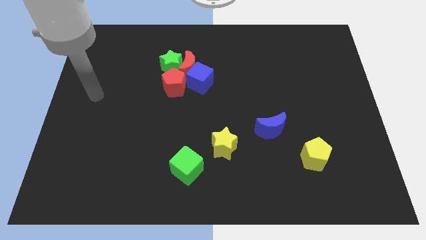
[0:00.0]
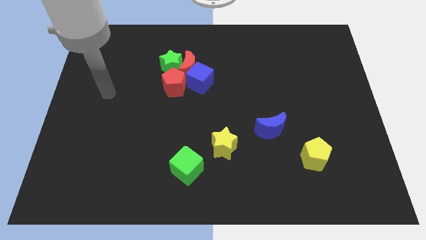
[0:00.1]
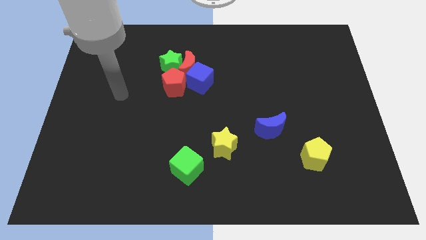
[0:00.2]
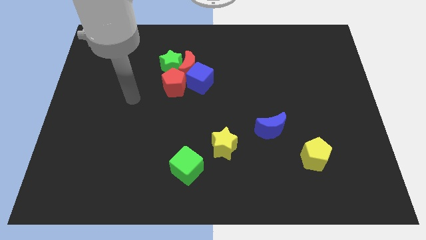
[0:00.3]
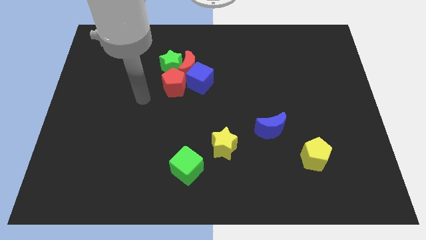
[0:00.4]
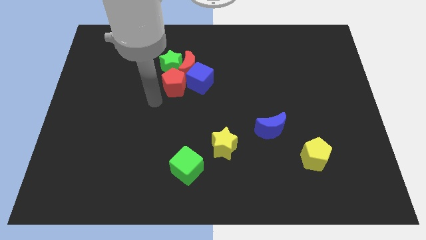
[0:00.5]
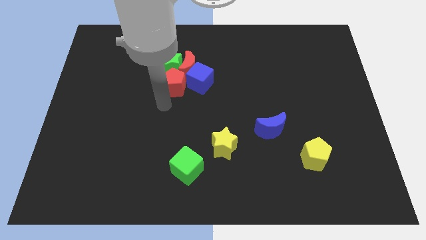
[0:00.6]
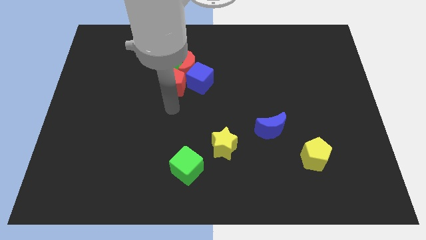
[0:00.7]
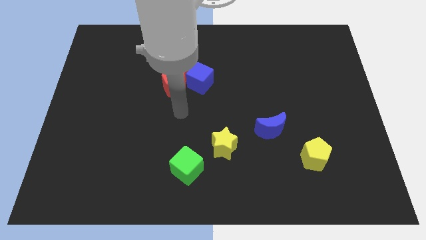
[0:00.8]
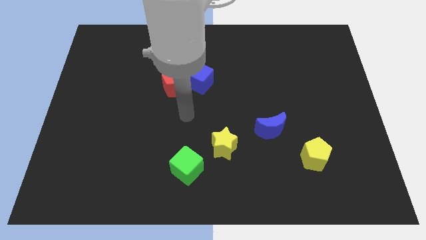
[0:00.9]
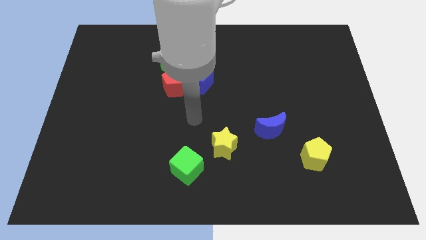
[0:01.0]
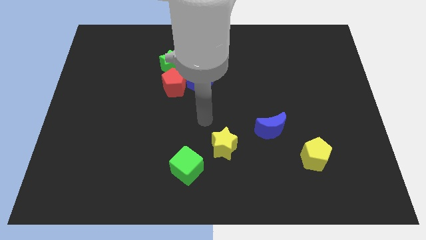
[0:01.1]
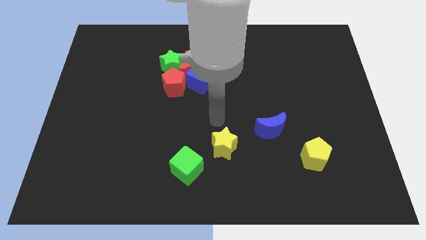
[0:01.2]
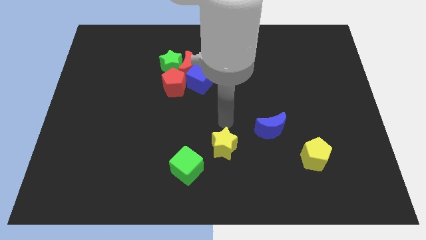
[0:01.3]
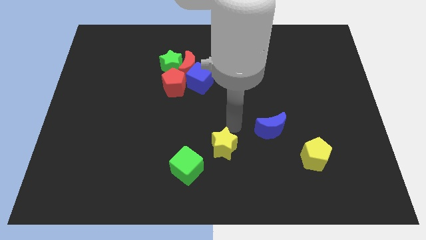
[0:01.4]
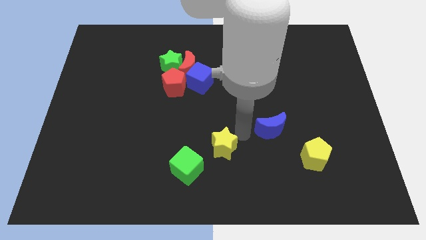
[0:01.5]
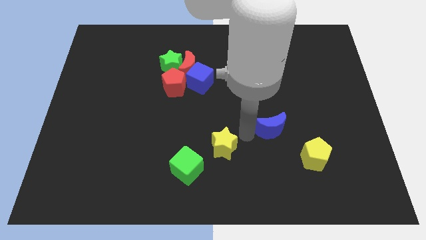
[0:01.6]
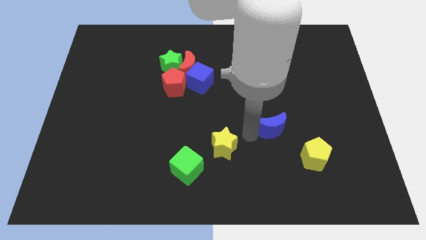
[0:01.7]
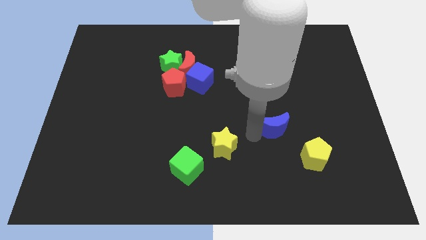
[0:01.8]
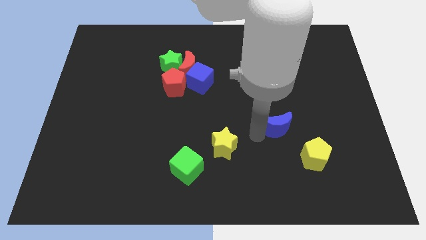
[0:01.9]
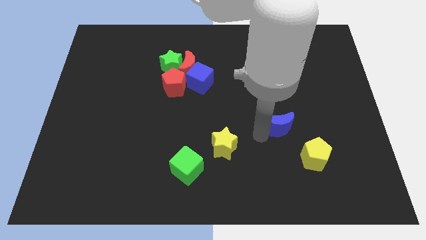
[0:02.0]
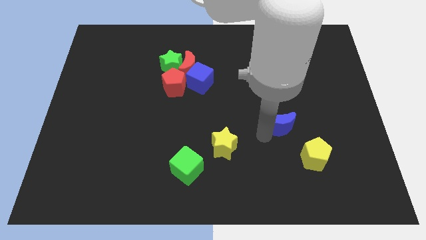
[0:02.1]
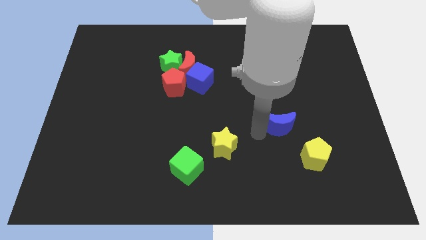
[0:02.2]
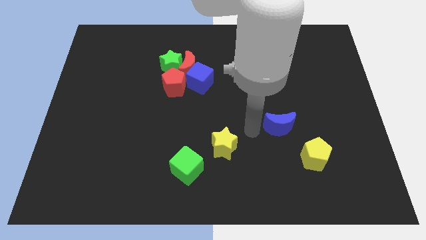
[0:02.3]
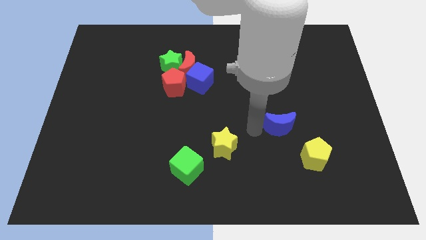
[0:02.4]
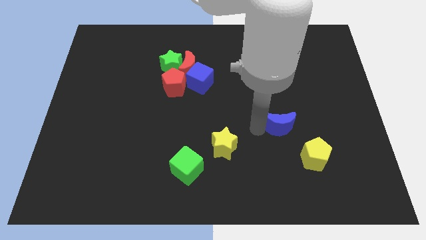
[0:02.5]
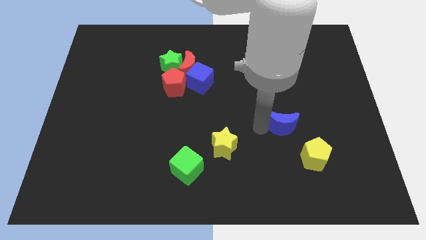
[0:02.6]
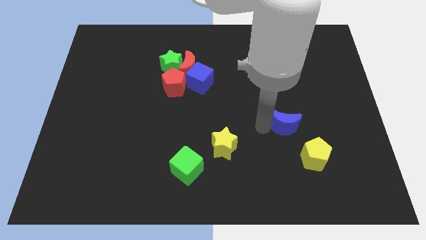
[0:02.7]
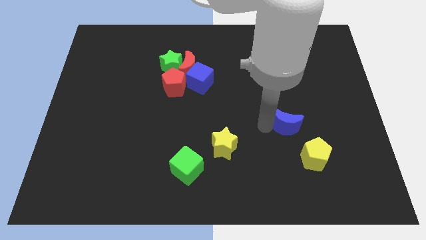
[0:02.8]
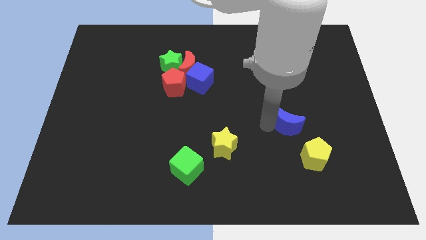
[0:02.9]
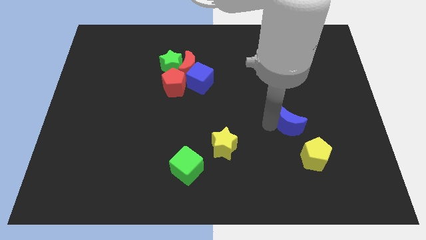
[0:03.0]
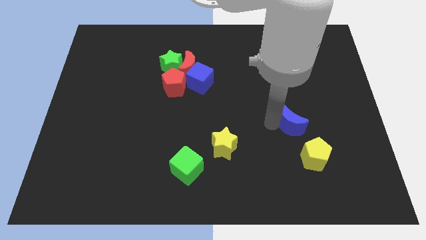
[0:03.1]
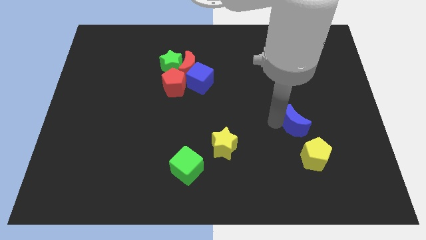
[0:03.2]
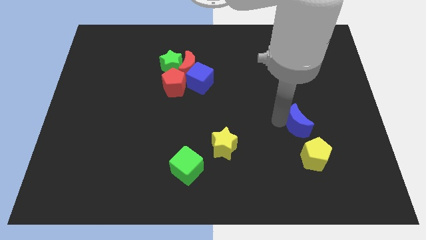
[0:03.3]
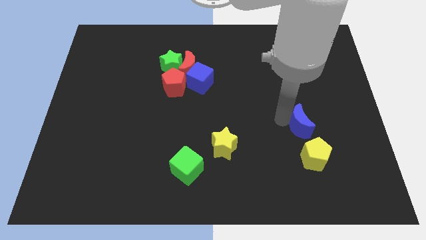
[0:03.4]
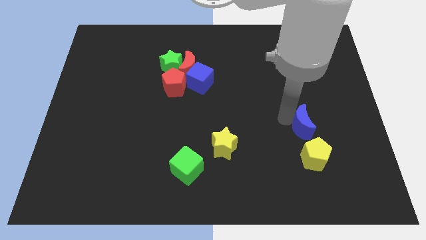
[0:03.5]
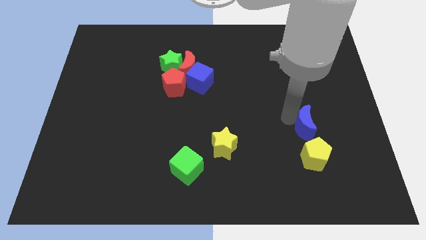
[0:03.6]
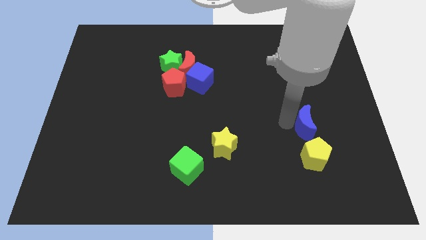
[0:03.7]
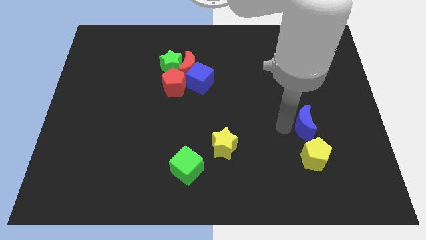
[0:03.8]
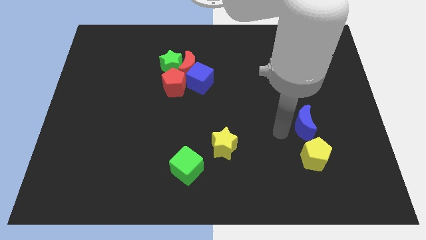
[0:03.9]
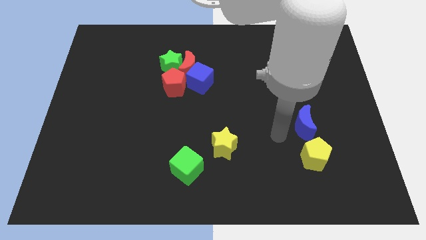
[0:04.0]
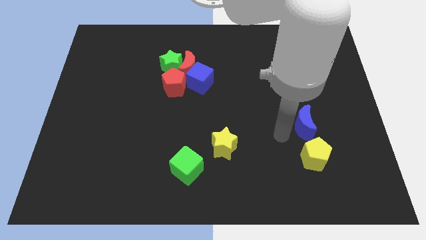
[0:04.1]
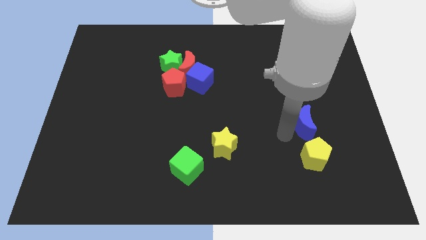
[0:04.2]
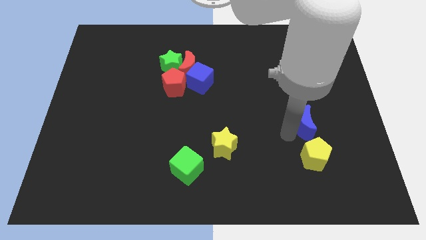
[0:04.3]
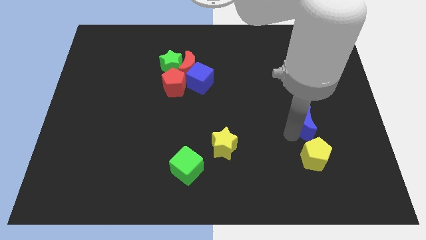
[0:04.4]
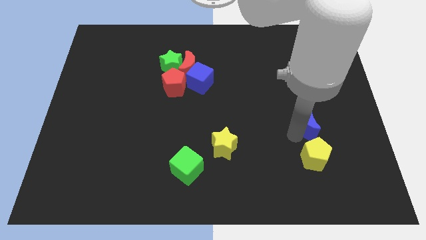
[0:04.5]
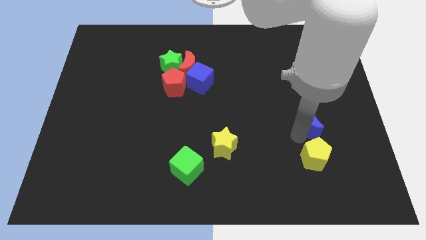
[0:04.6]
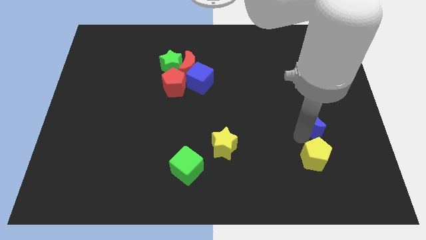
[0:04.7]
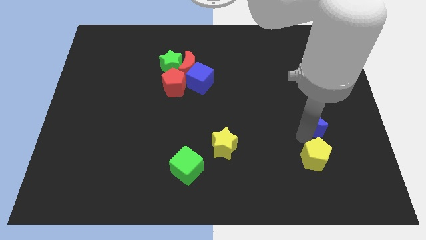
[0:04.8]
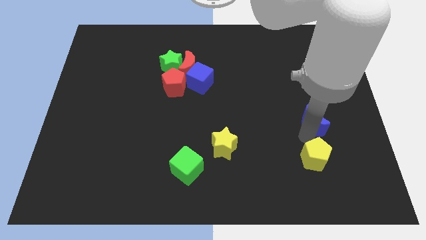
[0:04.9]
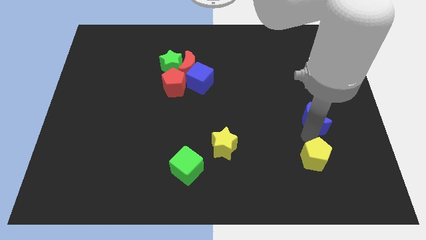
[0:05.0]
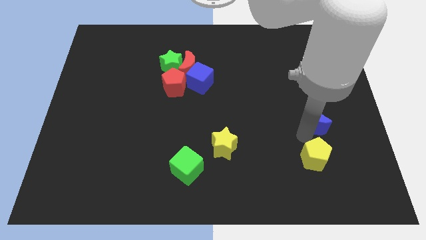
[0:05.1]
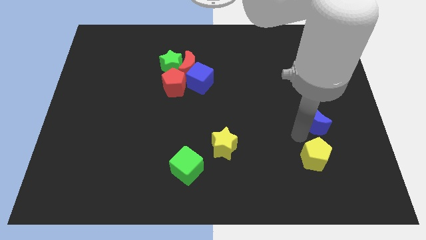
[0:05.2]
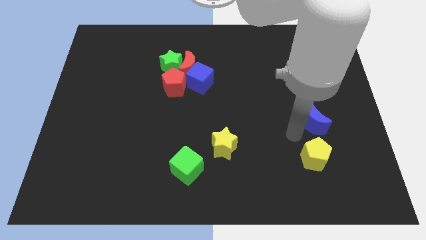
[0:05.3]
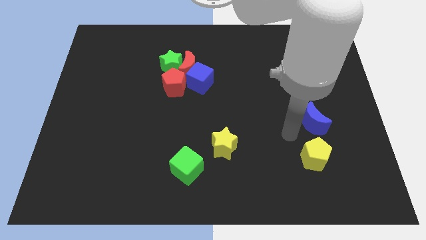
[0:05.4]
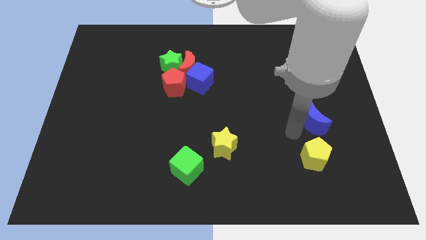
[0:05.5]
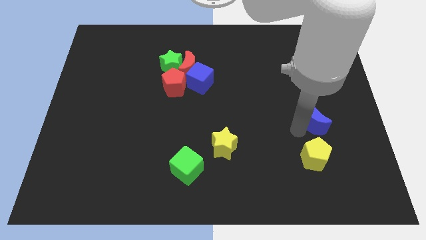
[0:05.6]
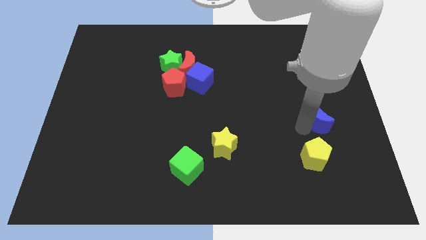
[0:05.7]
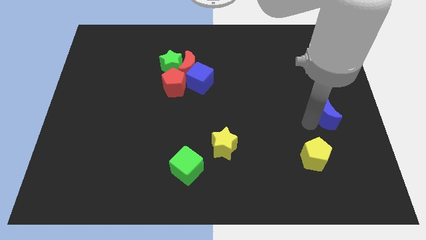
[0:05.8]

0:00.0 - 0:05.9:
put the blue moon to the right side of the board
